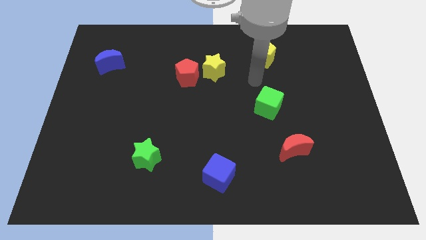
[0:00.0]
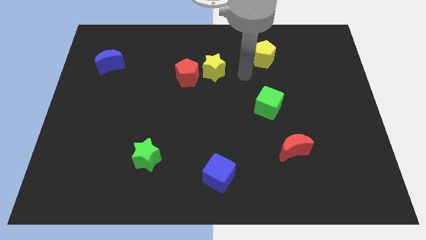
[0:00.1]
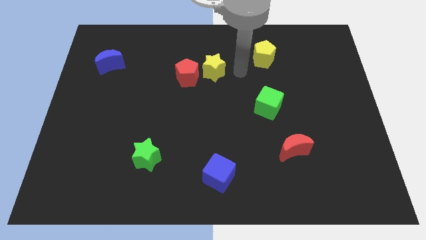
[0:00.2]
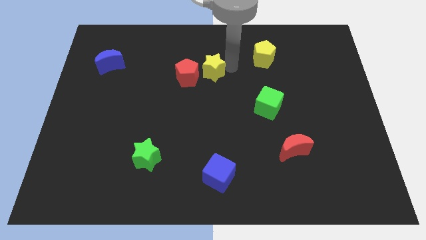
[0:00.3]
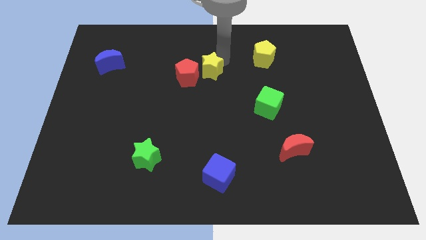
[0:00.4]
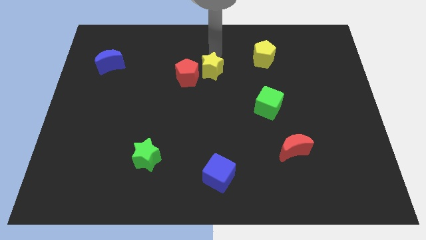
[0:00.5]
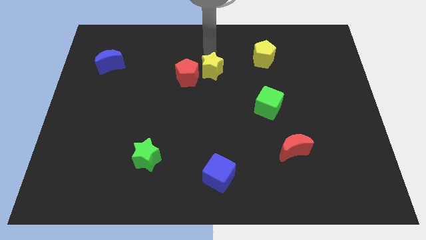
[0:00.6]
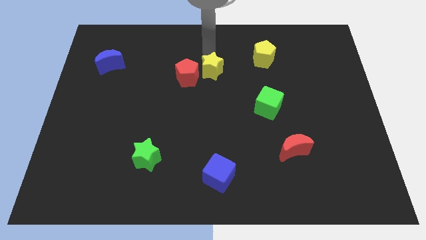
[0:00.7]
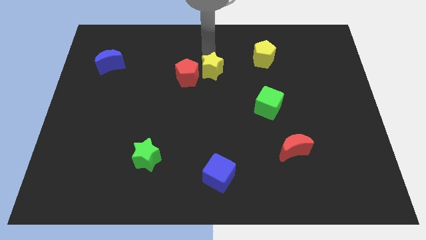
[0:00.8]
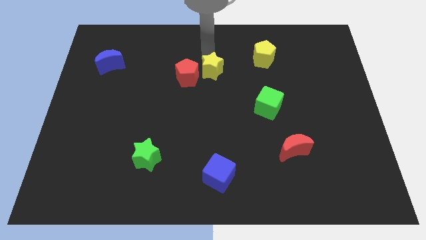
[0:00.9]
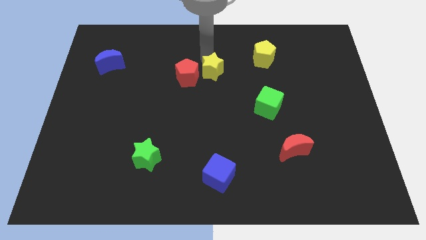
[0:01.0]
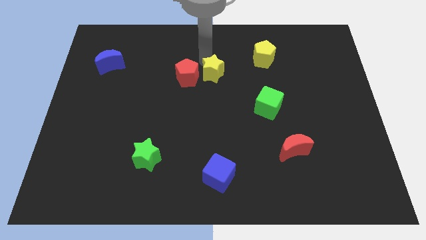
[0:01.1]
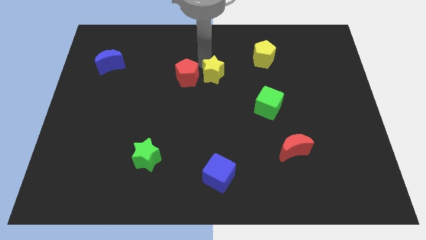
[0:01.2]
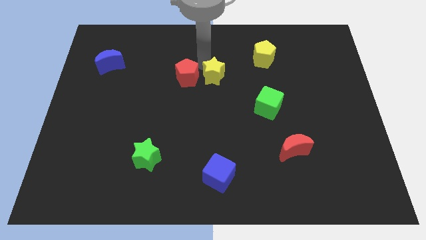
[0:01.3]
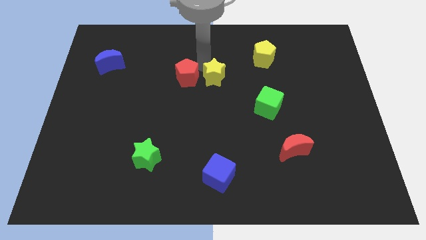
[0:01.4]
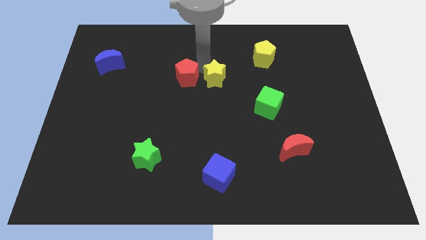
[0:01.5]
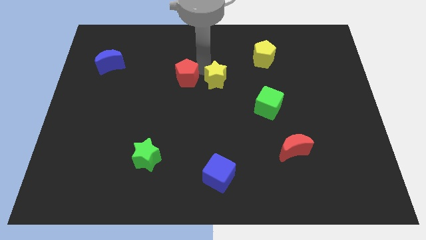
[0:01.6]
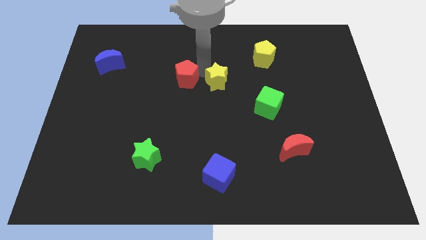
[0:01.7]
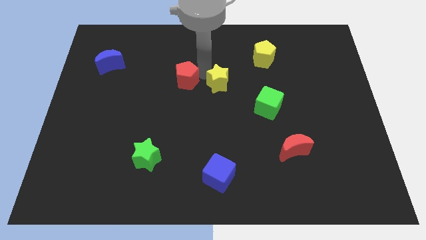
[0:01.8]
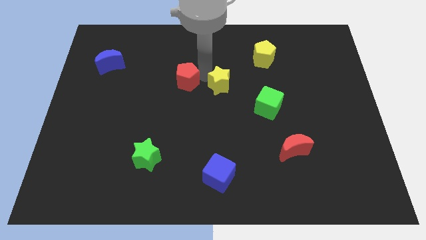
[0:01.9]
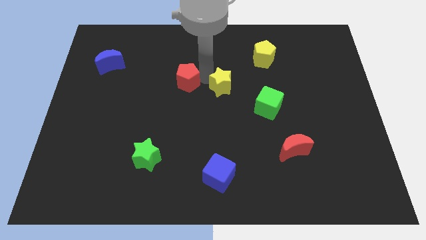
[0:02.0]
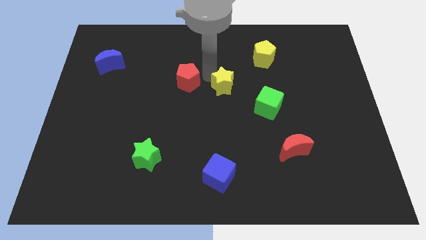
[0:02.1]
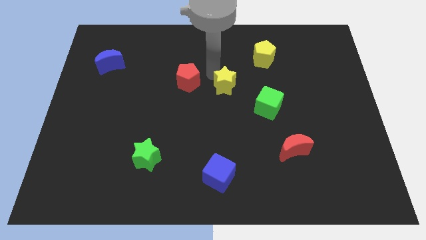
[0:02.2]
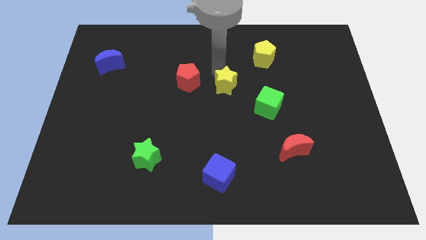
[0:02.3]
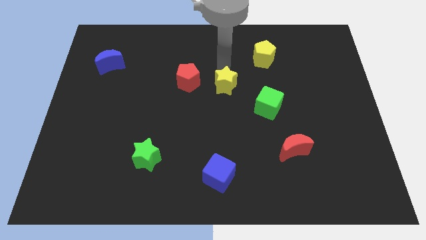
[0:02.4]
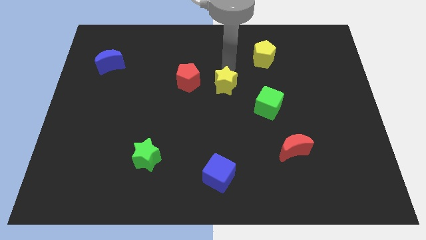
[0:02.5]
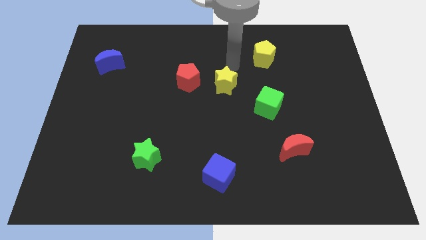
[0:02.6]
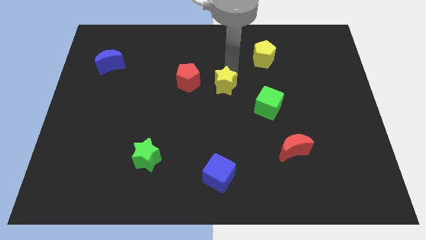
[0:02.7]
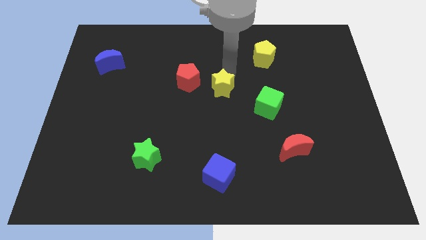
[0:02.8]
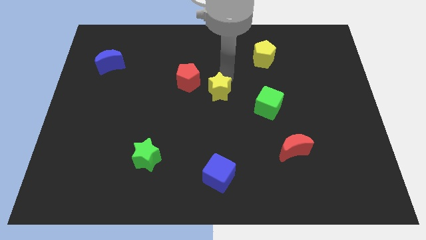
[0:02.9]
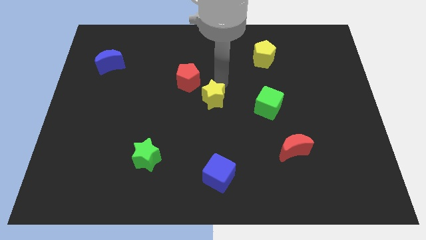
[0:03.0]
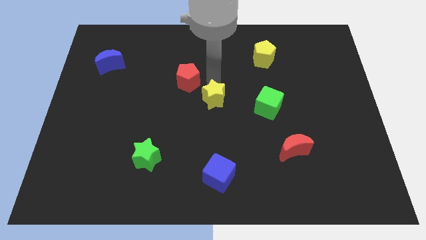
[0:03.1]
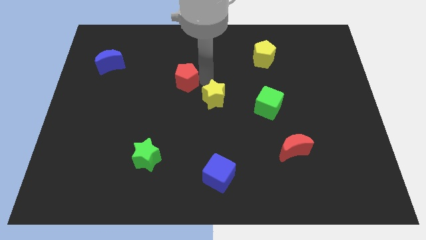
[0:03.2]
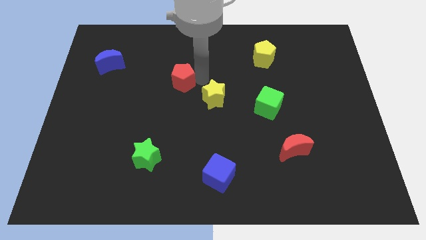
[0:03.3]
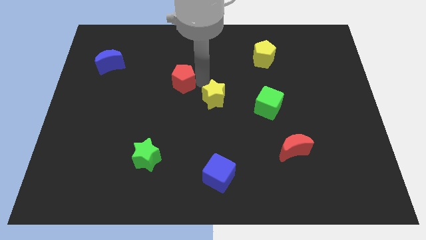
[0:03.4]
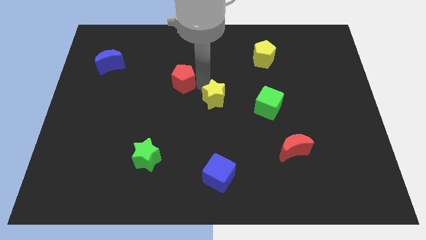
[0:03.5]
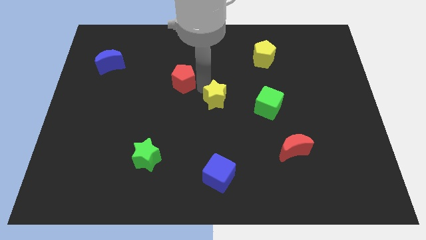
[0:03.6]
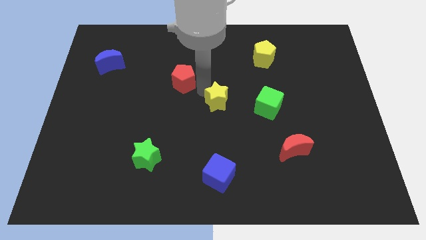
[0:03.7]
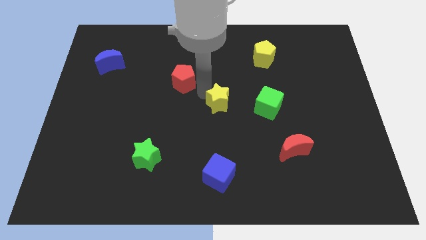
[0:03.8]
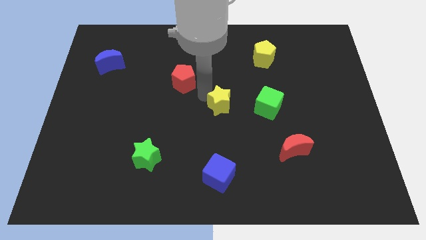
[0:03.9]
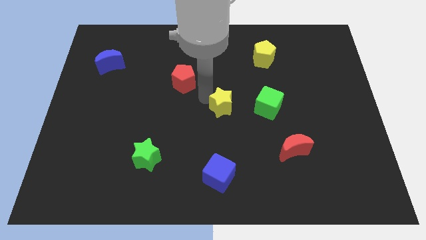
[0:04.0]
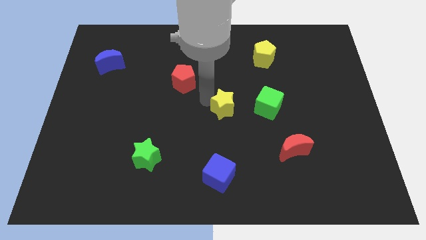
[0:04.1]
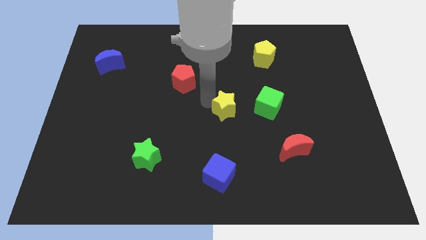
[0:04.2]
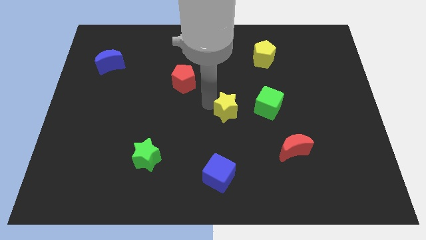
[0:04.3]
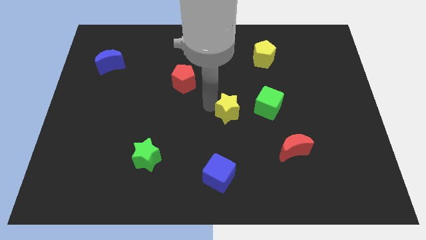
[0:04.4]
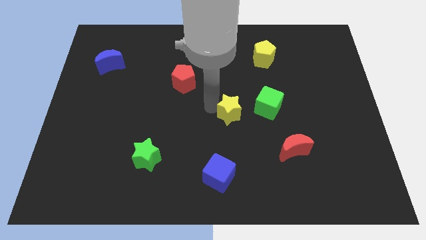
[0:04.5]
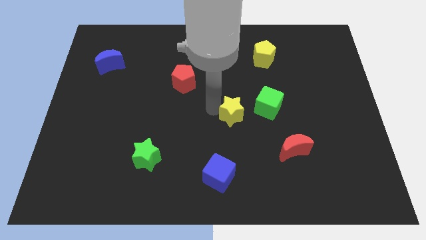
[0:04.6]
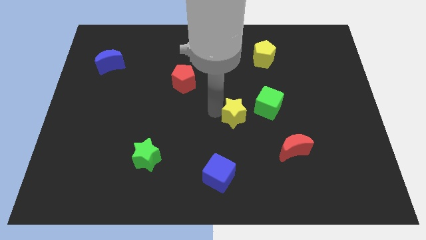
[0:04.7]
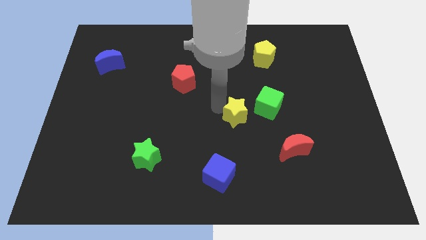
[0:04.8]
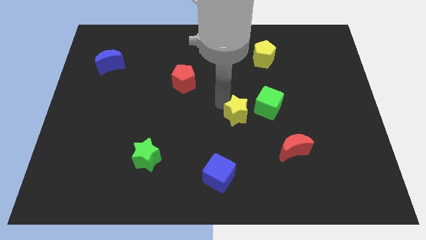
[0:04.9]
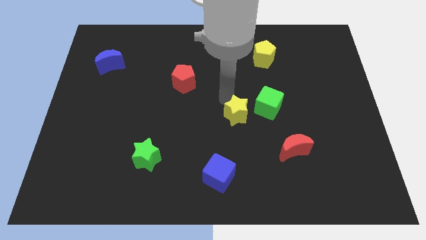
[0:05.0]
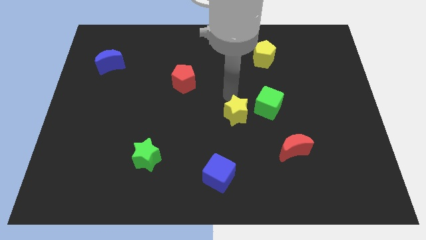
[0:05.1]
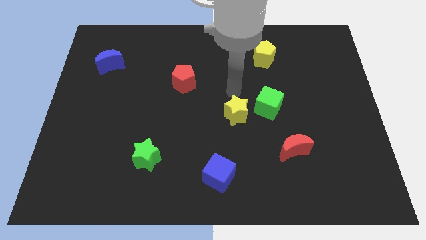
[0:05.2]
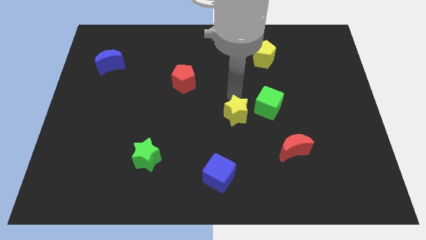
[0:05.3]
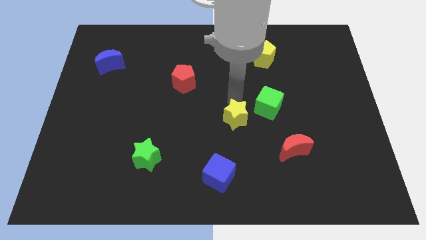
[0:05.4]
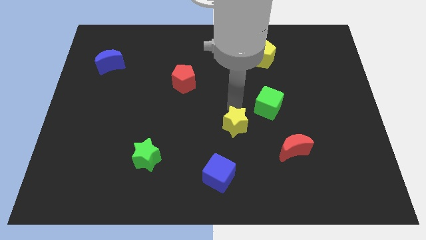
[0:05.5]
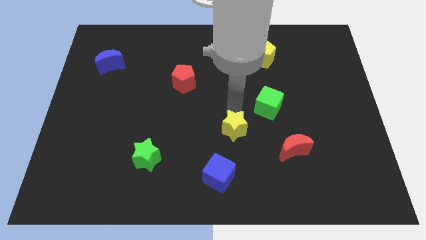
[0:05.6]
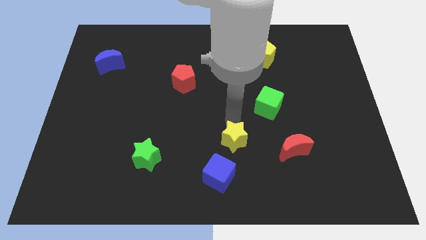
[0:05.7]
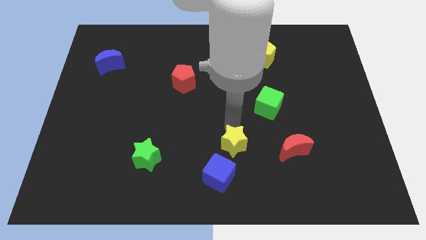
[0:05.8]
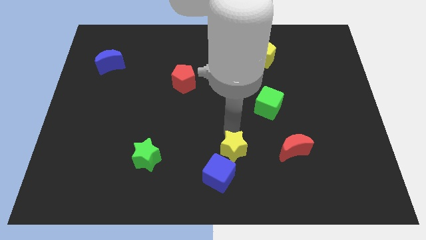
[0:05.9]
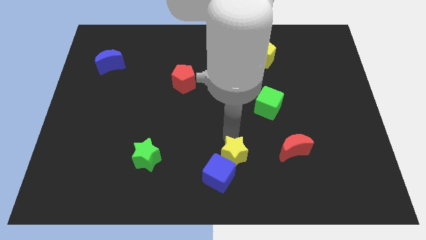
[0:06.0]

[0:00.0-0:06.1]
push the yellow star to the bottom side
